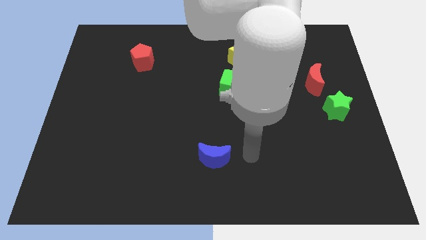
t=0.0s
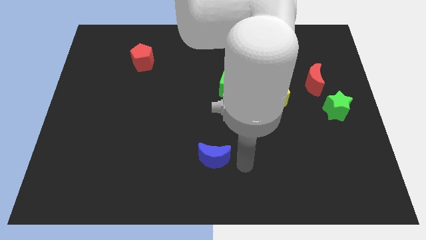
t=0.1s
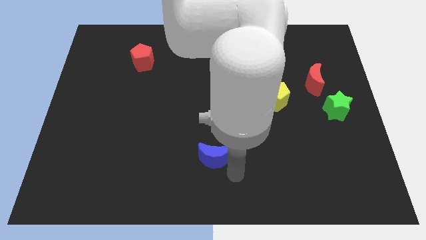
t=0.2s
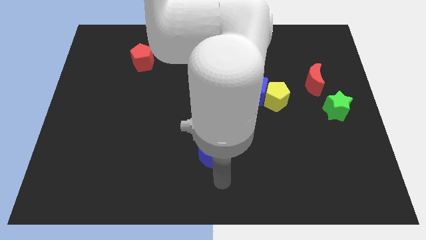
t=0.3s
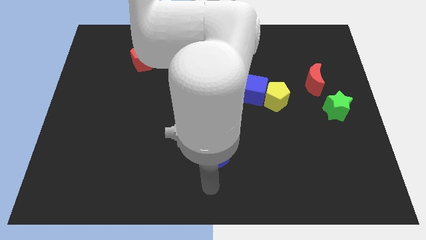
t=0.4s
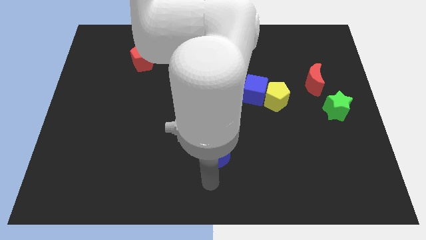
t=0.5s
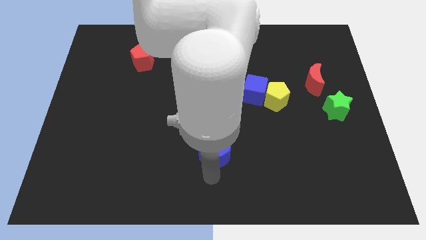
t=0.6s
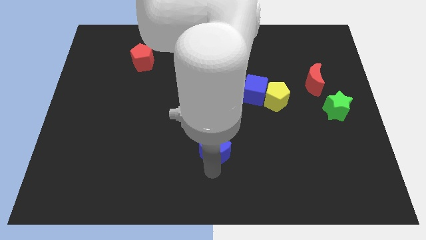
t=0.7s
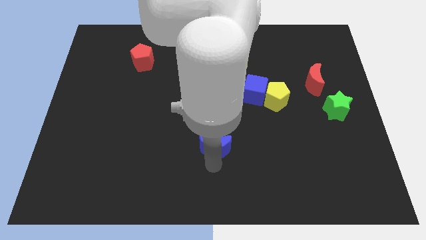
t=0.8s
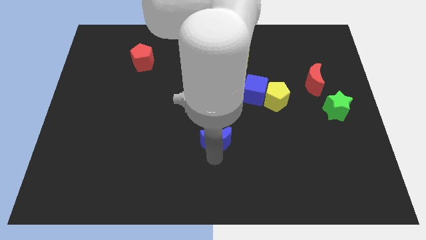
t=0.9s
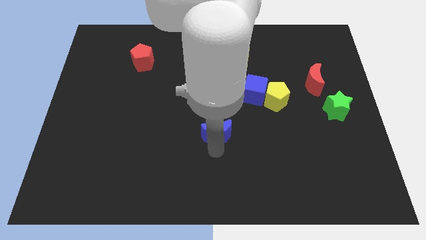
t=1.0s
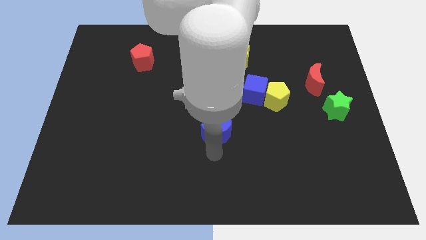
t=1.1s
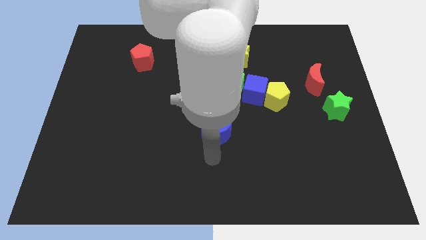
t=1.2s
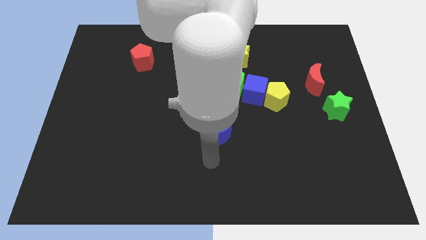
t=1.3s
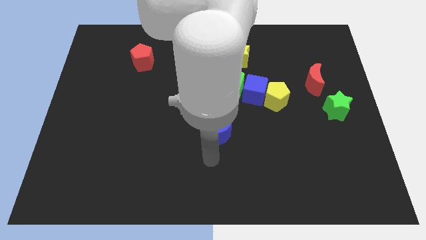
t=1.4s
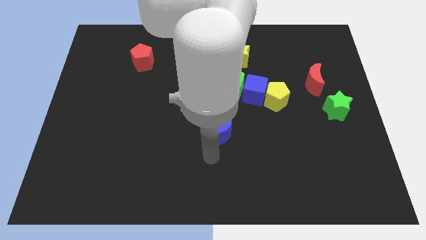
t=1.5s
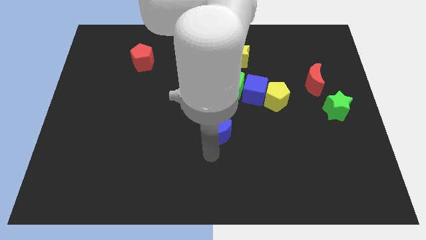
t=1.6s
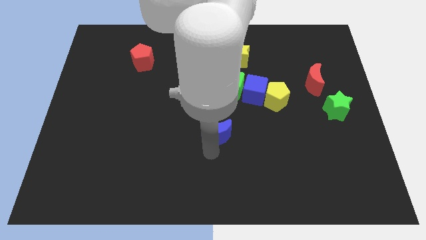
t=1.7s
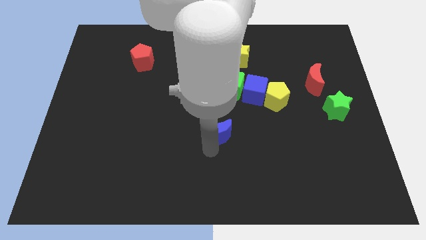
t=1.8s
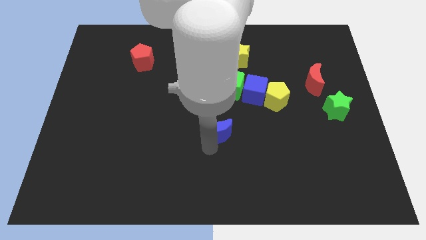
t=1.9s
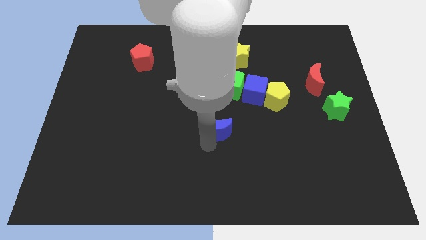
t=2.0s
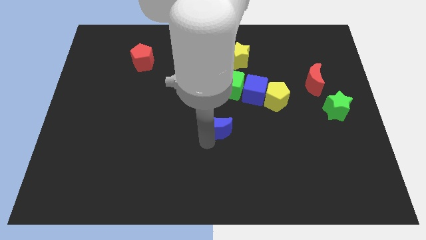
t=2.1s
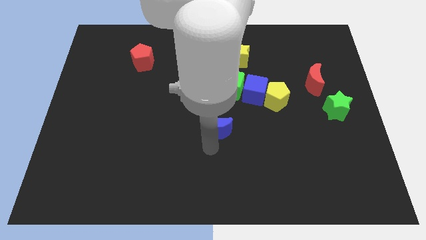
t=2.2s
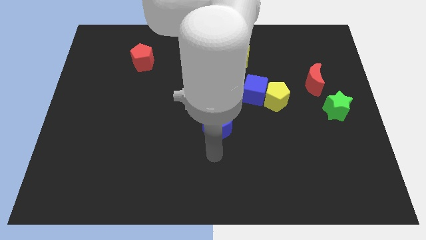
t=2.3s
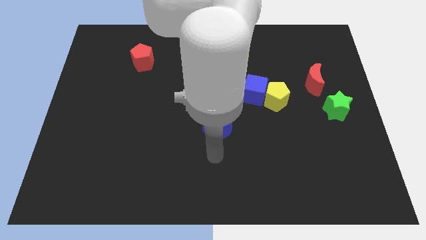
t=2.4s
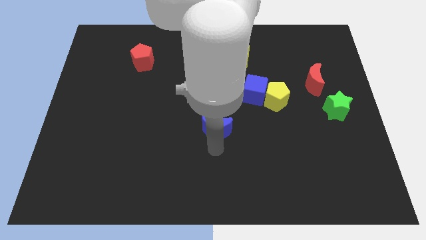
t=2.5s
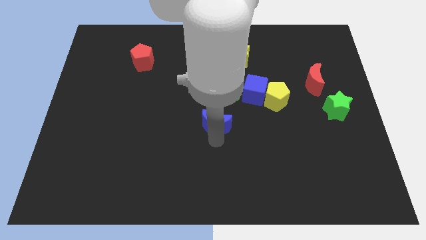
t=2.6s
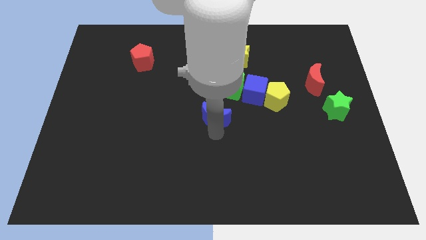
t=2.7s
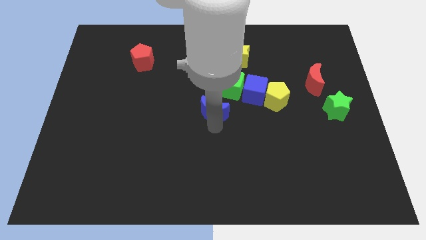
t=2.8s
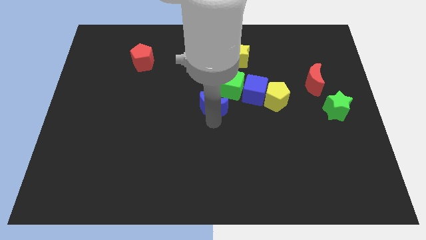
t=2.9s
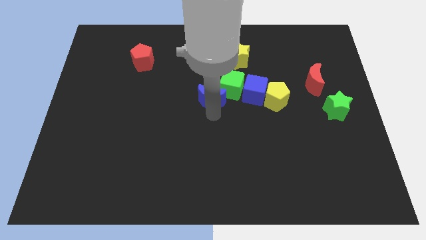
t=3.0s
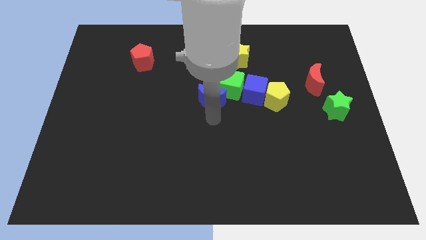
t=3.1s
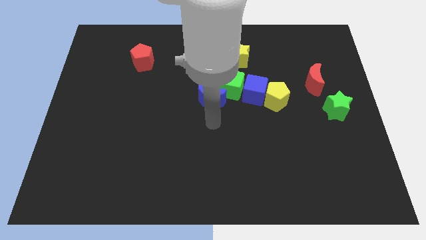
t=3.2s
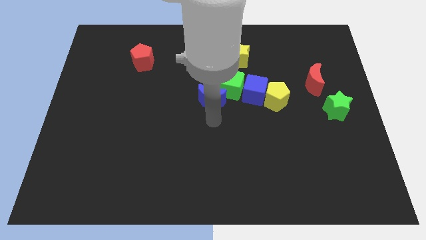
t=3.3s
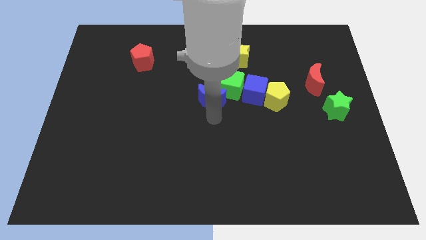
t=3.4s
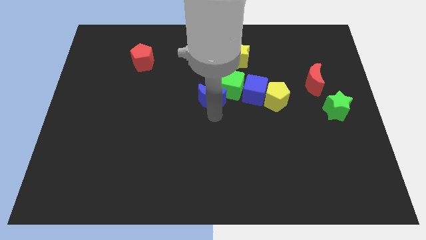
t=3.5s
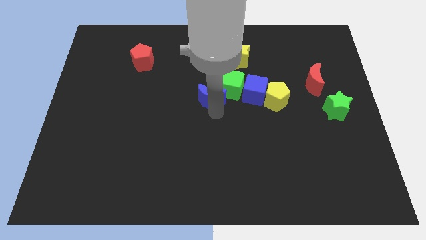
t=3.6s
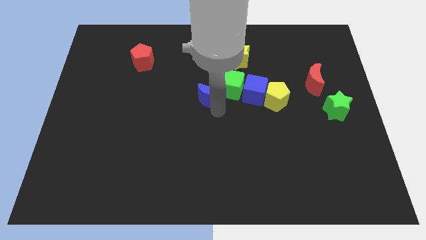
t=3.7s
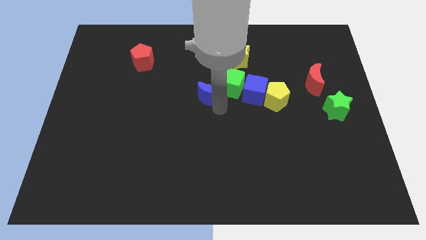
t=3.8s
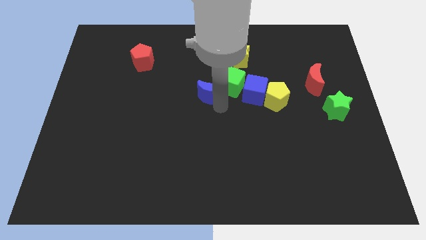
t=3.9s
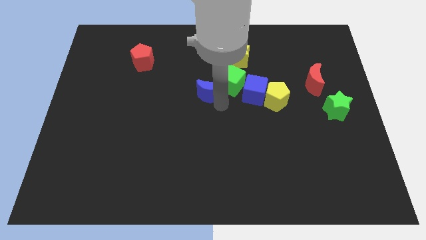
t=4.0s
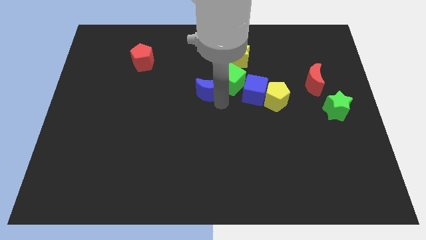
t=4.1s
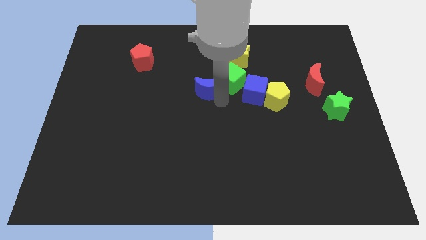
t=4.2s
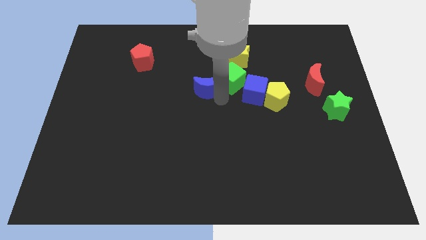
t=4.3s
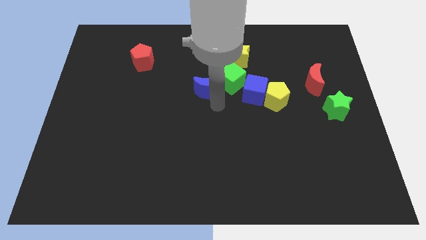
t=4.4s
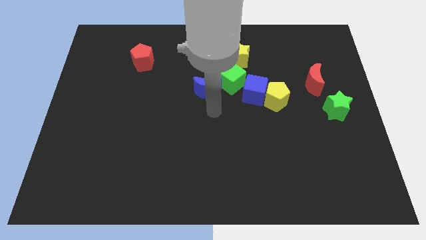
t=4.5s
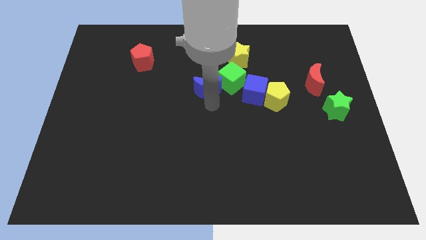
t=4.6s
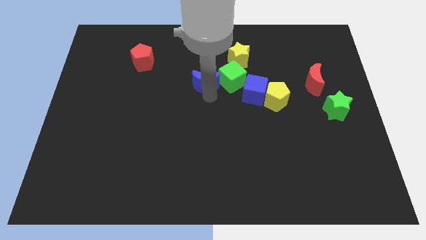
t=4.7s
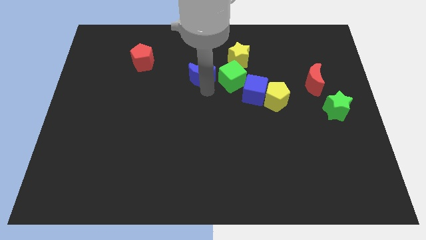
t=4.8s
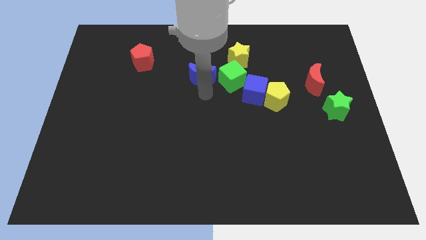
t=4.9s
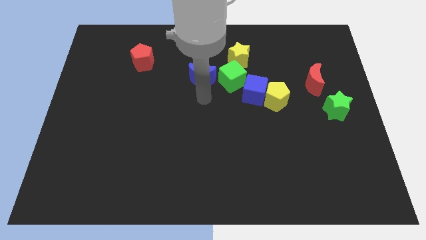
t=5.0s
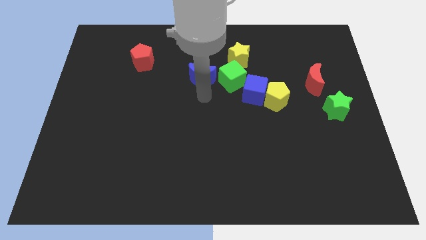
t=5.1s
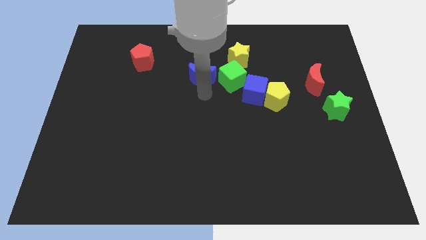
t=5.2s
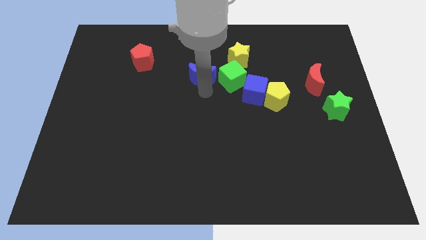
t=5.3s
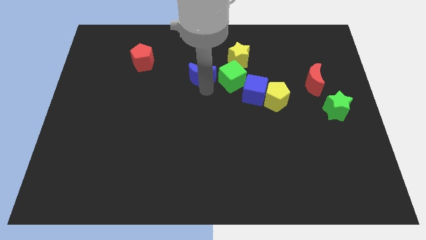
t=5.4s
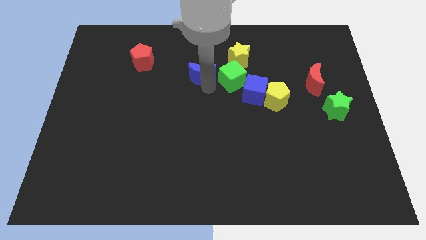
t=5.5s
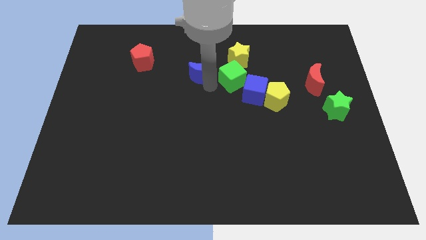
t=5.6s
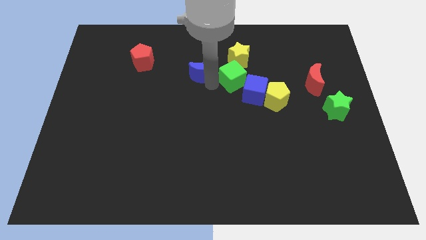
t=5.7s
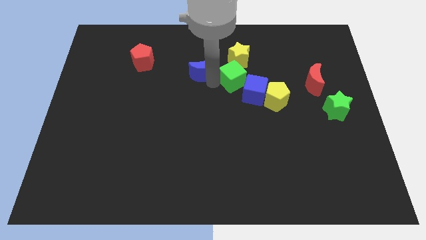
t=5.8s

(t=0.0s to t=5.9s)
slide the blue moon left of the yellow star

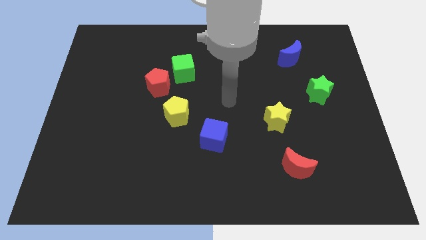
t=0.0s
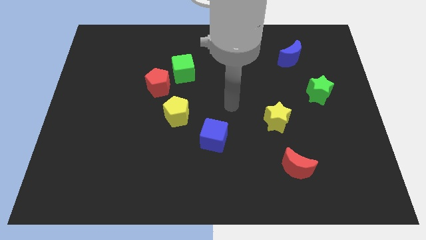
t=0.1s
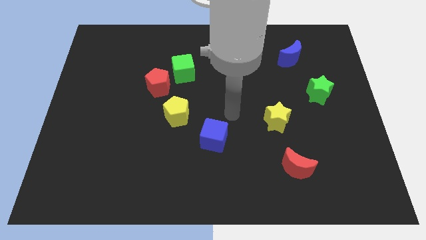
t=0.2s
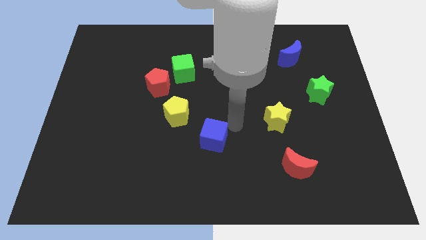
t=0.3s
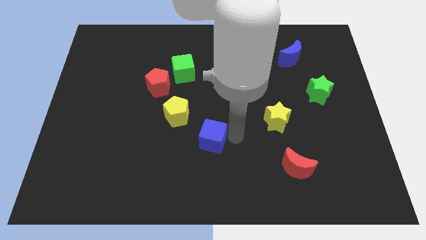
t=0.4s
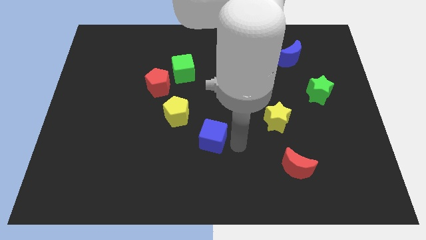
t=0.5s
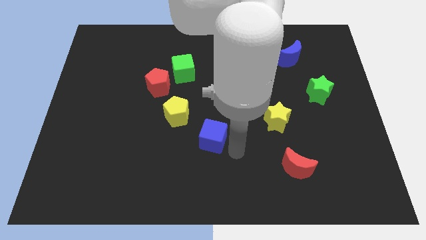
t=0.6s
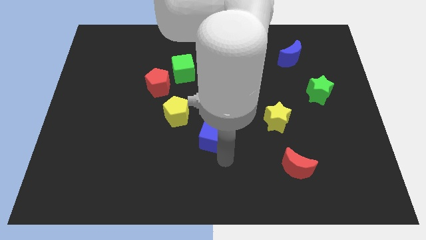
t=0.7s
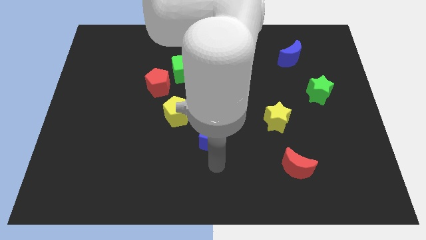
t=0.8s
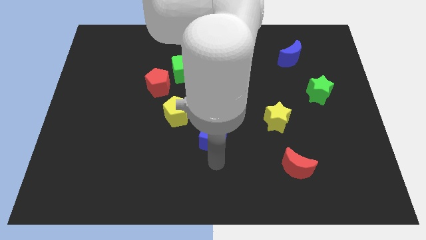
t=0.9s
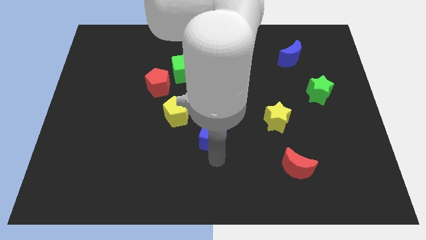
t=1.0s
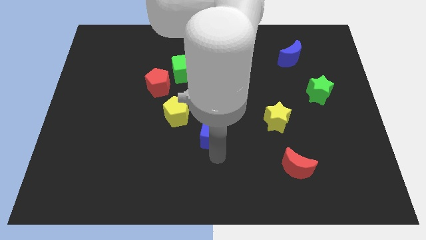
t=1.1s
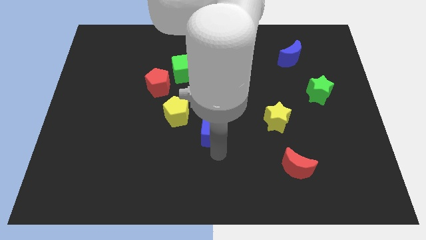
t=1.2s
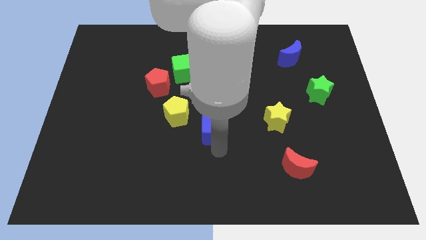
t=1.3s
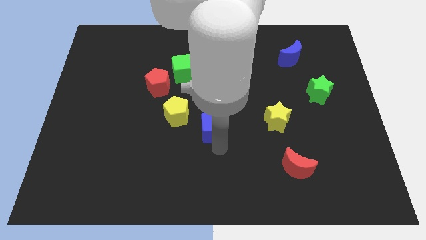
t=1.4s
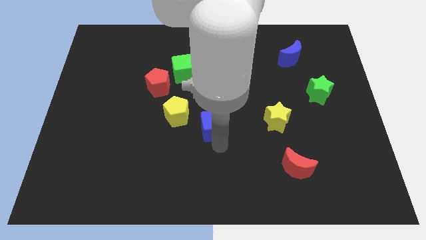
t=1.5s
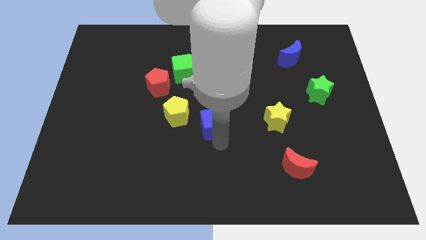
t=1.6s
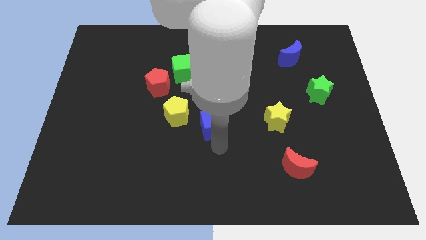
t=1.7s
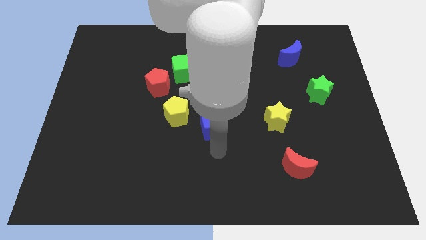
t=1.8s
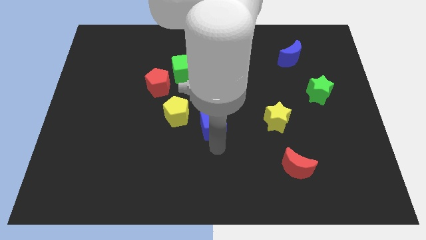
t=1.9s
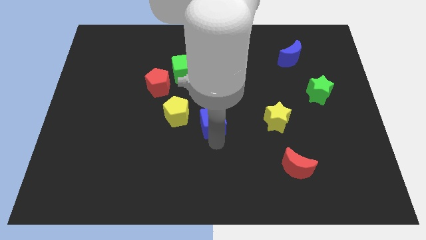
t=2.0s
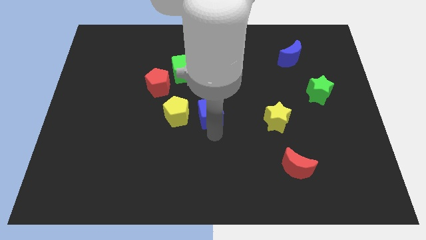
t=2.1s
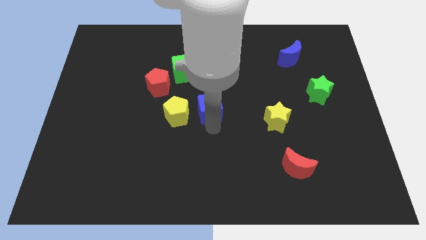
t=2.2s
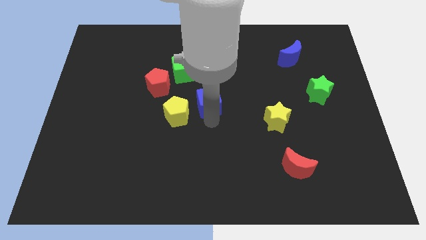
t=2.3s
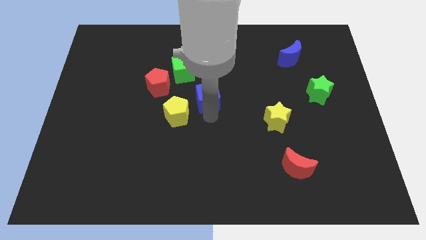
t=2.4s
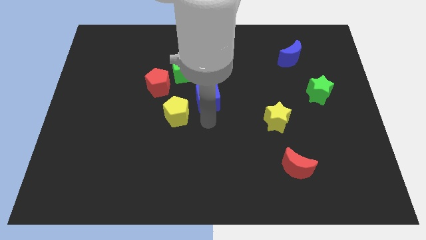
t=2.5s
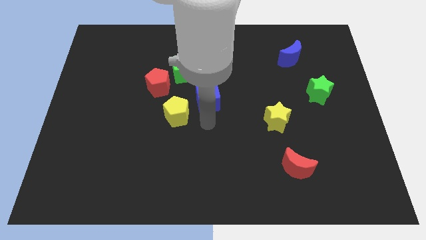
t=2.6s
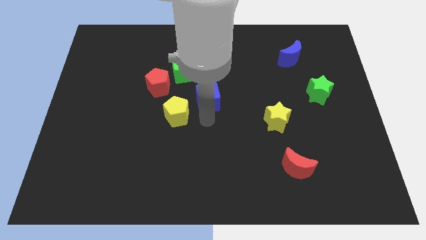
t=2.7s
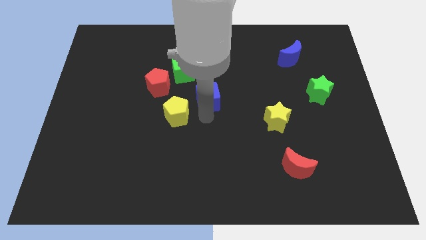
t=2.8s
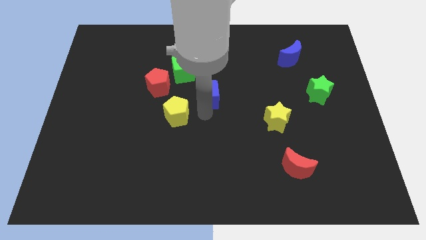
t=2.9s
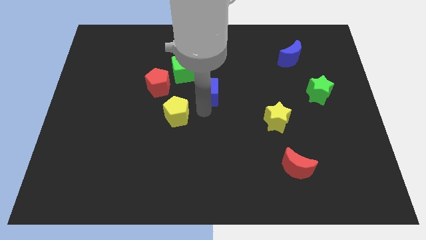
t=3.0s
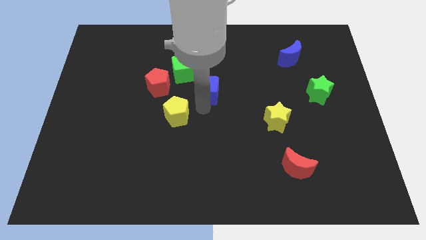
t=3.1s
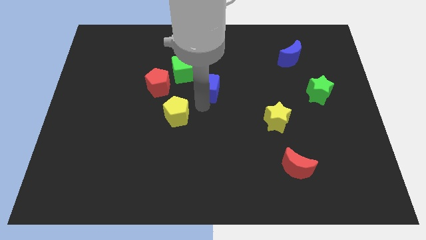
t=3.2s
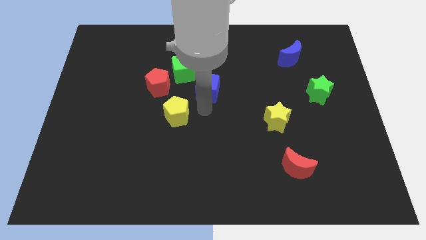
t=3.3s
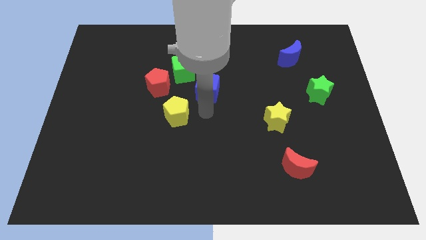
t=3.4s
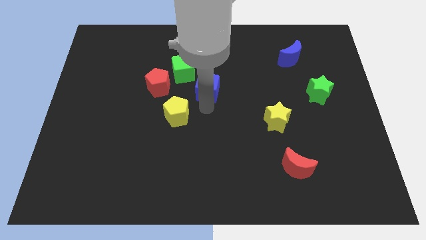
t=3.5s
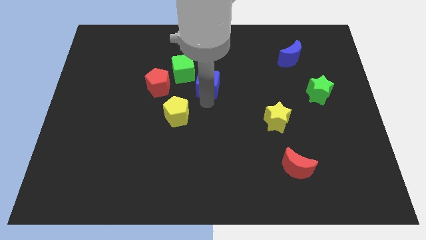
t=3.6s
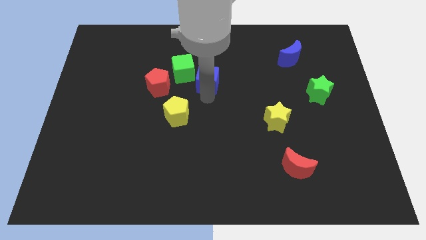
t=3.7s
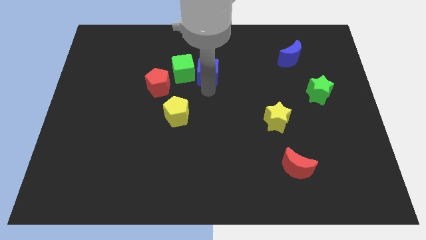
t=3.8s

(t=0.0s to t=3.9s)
put the blue cube diagonally up and to the right of the green cube
